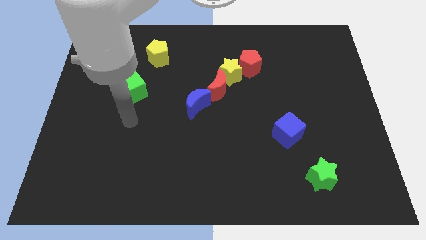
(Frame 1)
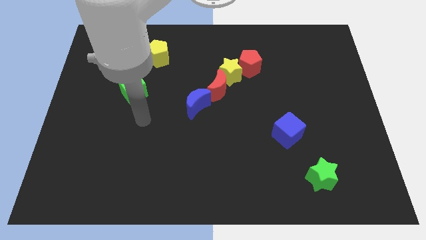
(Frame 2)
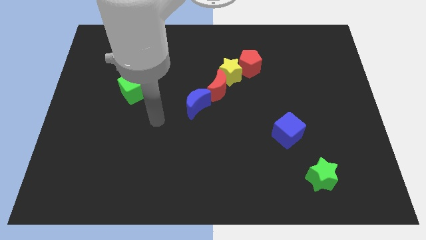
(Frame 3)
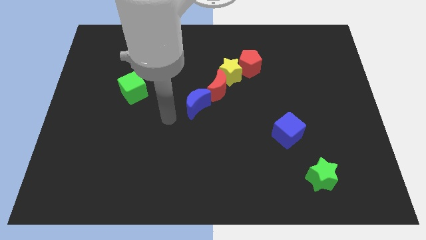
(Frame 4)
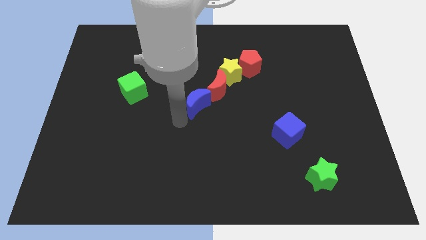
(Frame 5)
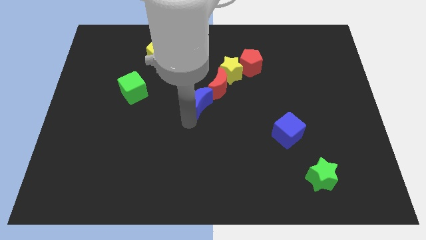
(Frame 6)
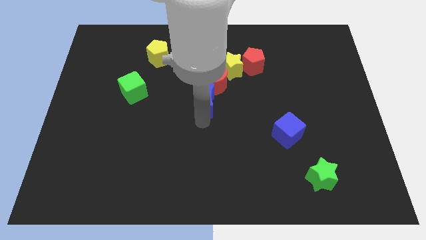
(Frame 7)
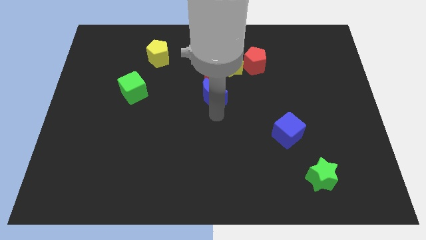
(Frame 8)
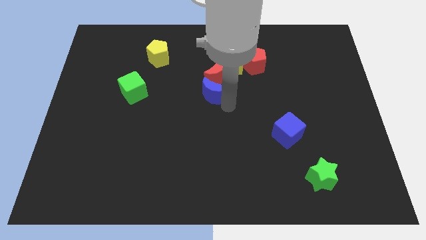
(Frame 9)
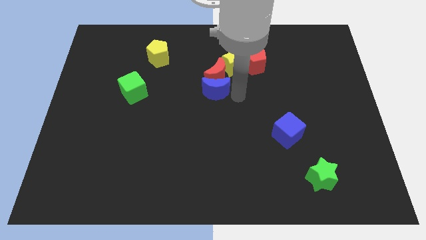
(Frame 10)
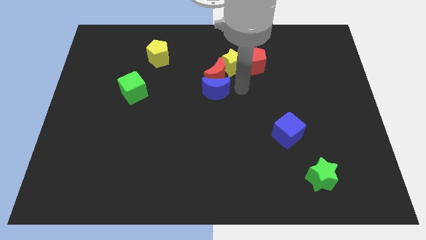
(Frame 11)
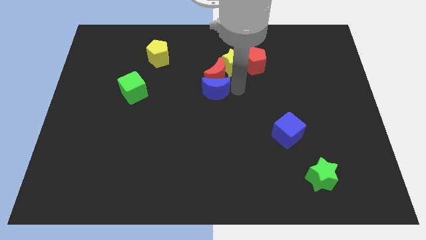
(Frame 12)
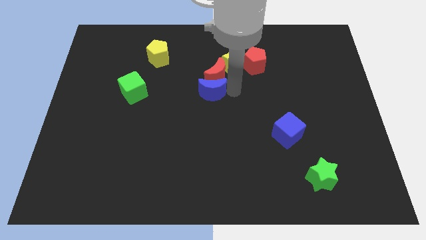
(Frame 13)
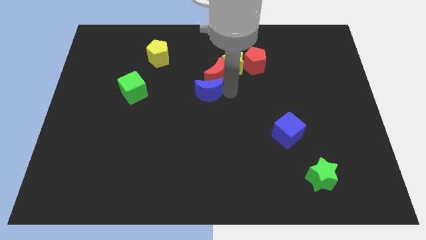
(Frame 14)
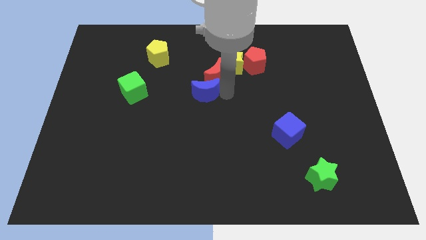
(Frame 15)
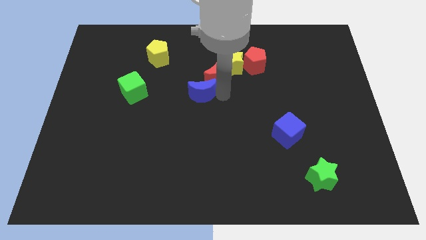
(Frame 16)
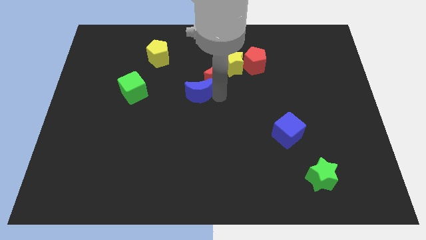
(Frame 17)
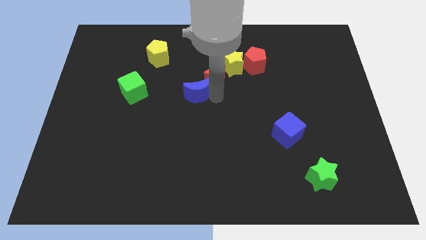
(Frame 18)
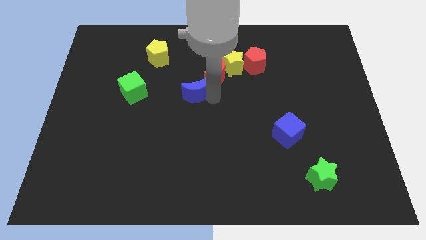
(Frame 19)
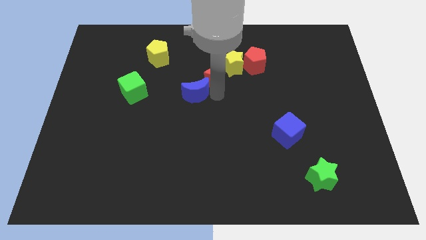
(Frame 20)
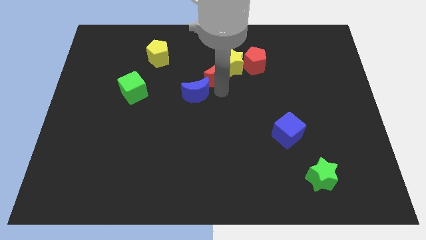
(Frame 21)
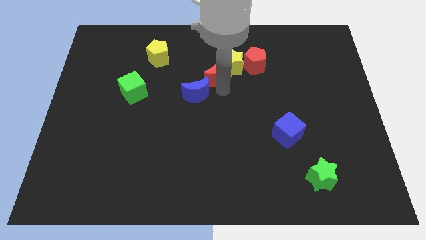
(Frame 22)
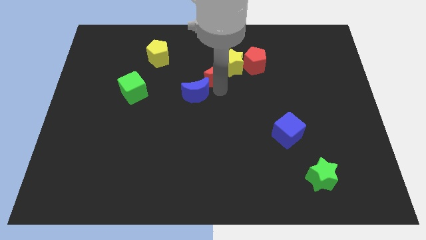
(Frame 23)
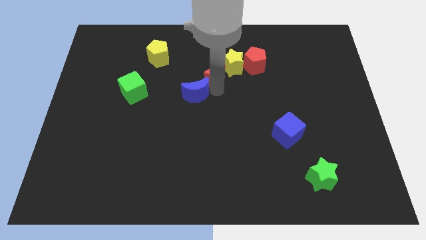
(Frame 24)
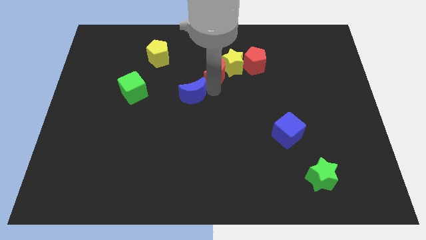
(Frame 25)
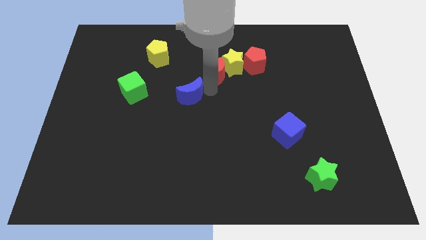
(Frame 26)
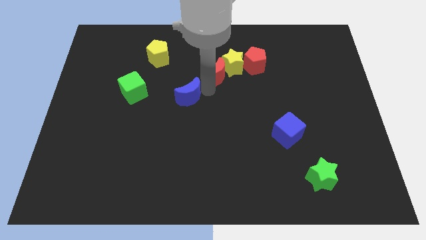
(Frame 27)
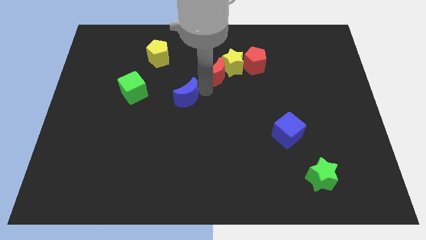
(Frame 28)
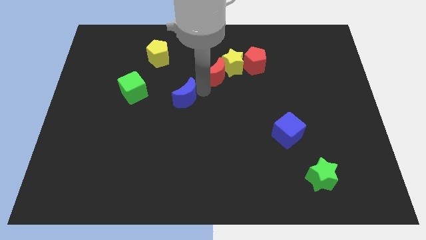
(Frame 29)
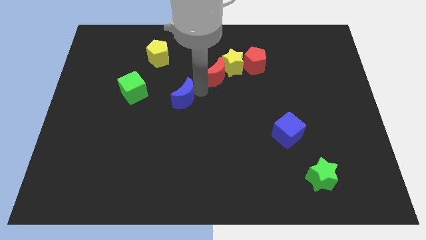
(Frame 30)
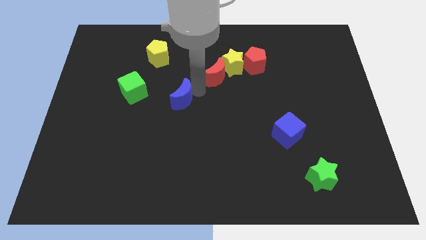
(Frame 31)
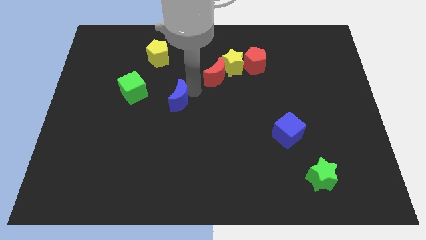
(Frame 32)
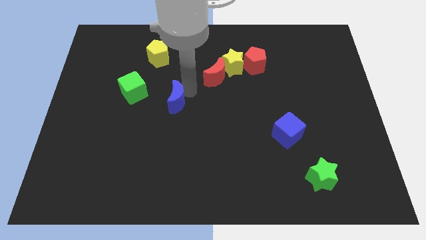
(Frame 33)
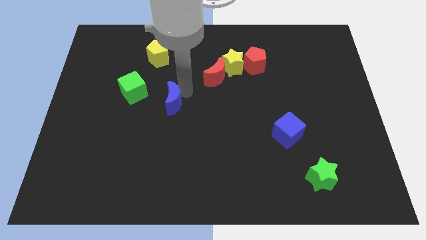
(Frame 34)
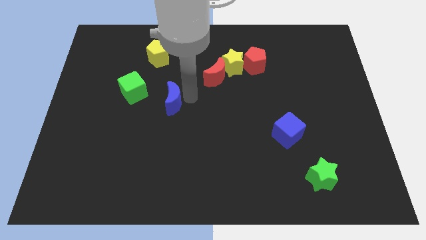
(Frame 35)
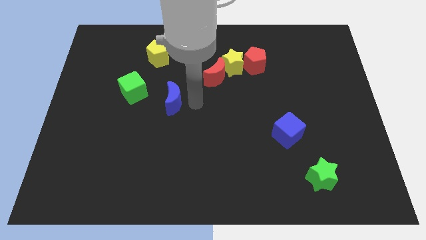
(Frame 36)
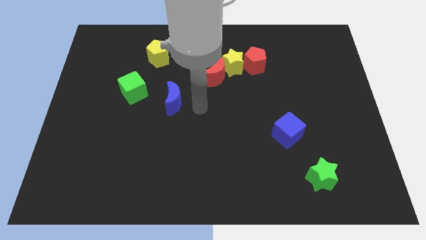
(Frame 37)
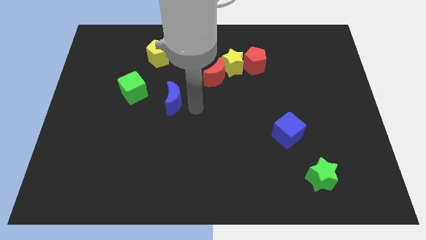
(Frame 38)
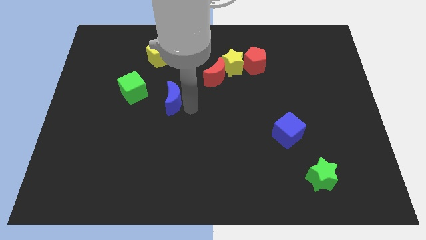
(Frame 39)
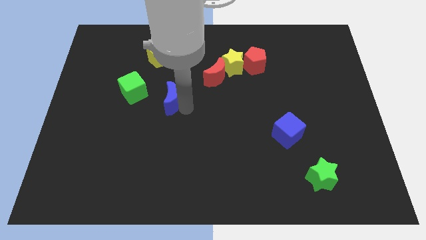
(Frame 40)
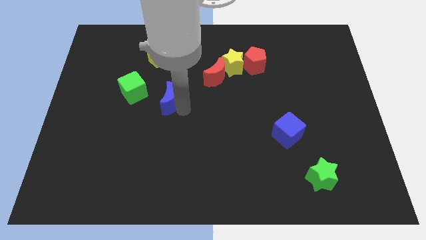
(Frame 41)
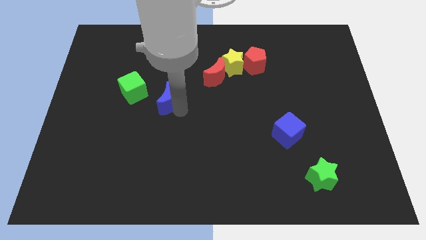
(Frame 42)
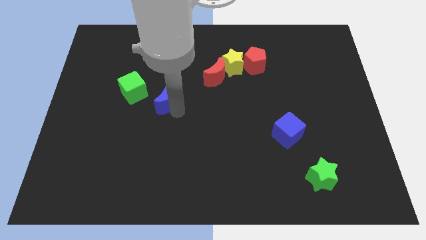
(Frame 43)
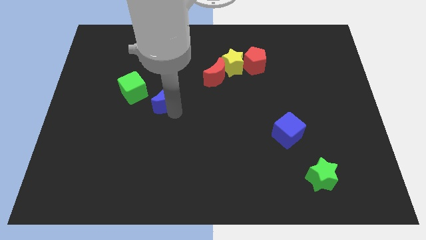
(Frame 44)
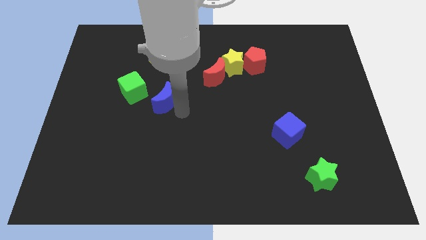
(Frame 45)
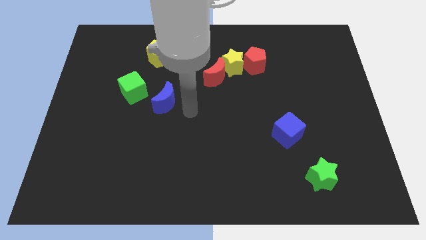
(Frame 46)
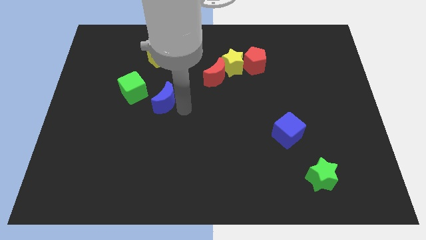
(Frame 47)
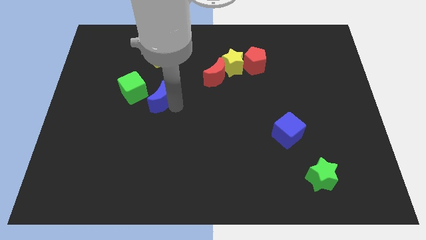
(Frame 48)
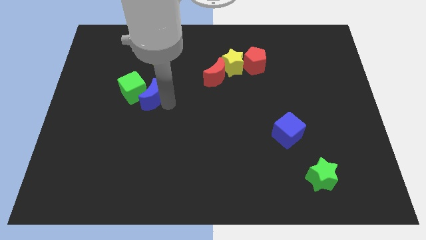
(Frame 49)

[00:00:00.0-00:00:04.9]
slide the blue moon to the green cube

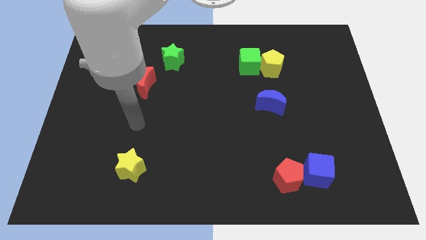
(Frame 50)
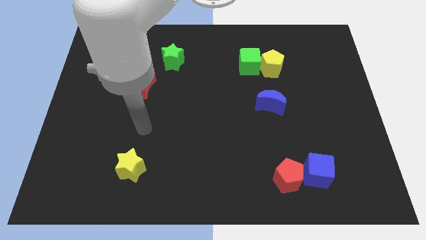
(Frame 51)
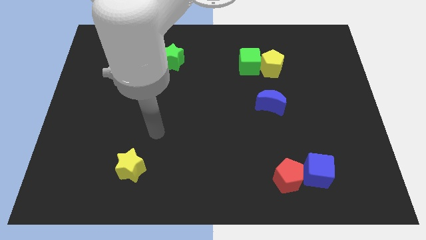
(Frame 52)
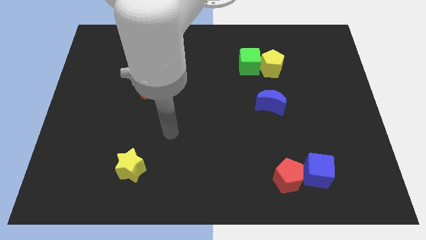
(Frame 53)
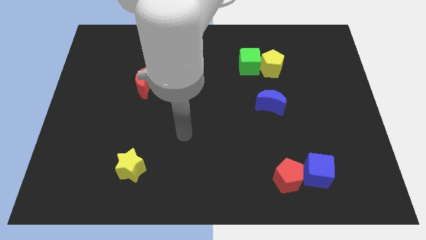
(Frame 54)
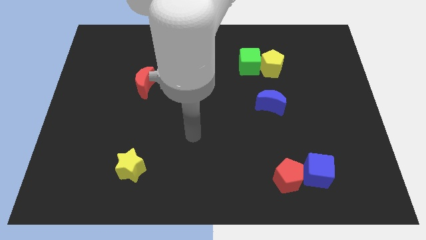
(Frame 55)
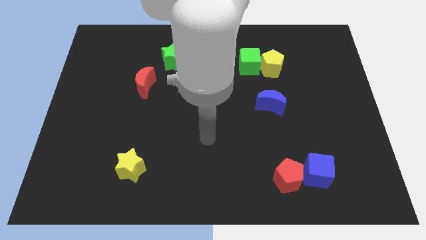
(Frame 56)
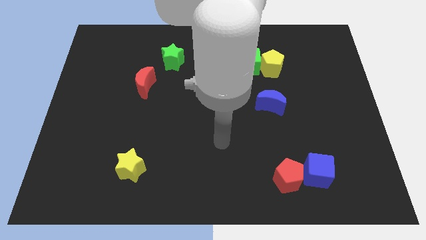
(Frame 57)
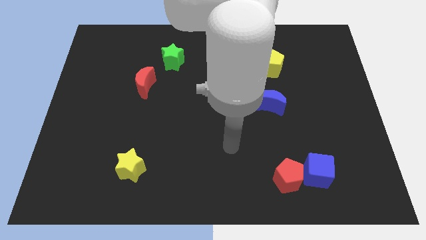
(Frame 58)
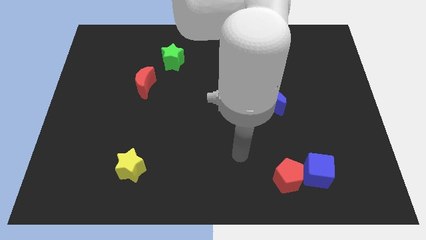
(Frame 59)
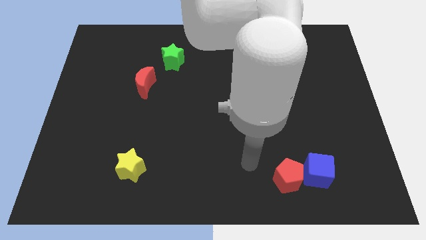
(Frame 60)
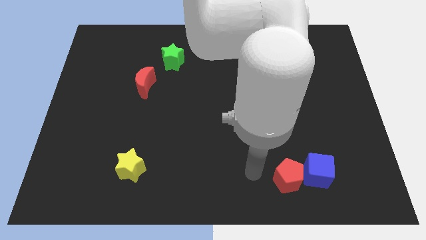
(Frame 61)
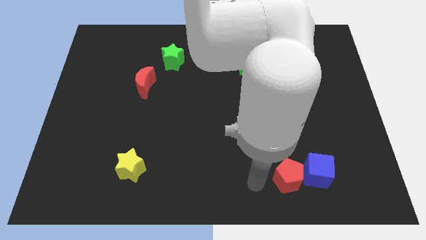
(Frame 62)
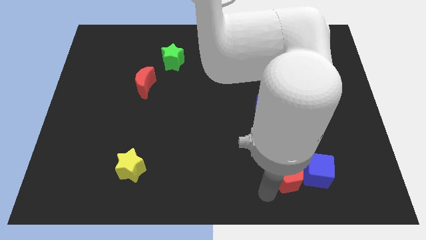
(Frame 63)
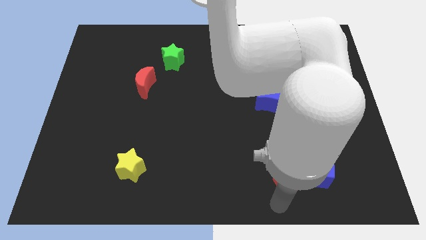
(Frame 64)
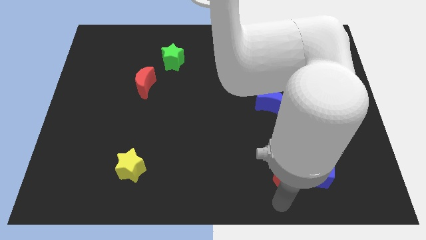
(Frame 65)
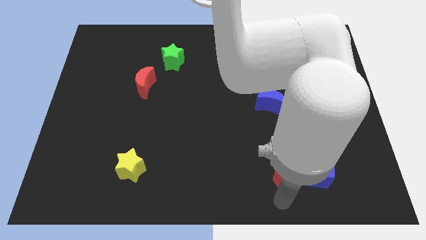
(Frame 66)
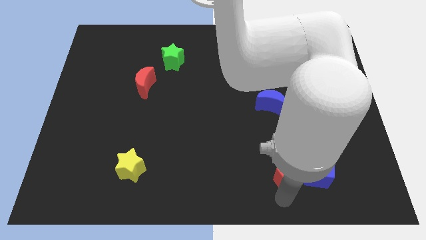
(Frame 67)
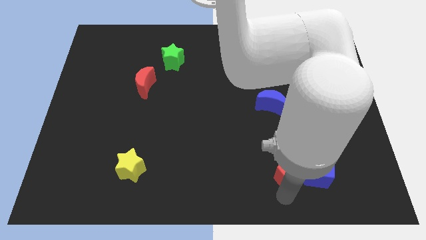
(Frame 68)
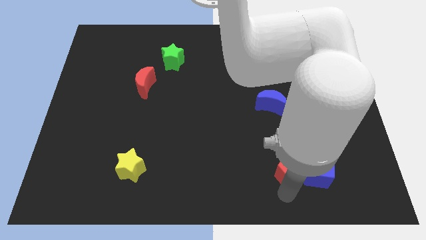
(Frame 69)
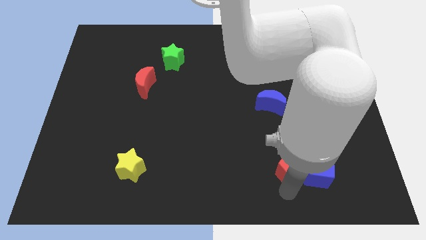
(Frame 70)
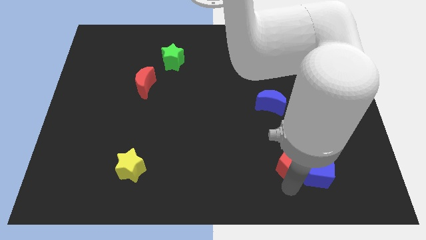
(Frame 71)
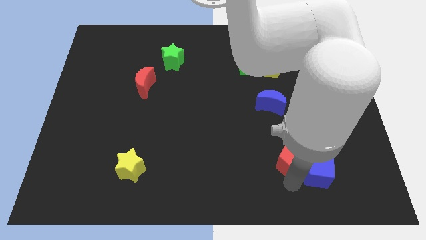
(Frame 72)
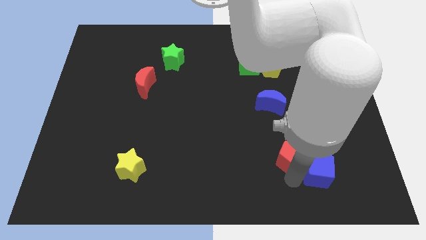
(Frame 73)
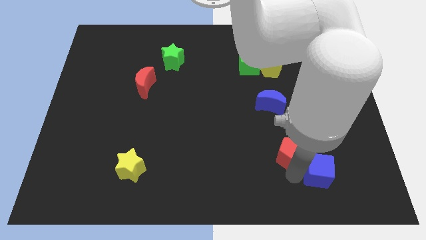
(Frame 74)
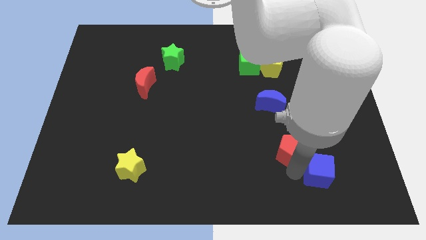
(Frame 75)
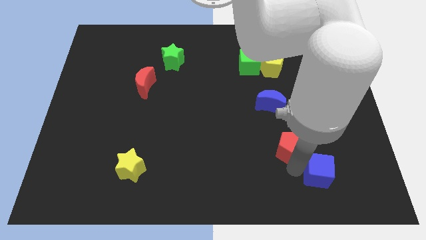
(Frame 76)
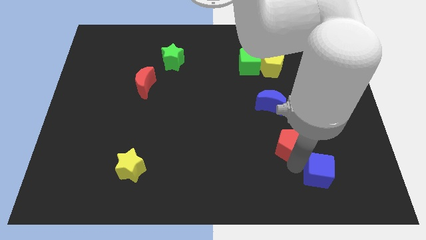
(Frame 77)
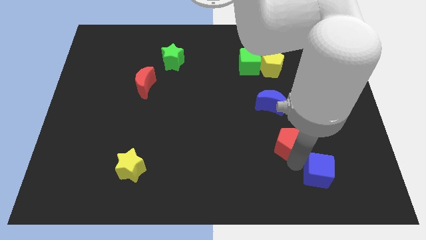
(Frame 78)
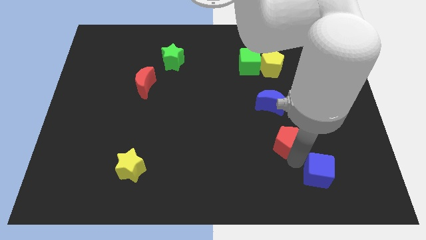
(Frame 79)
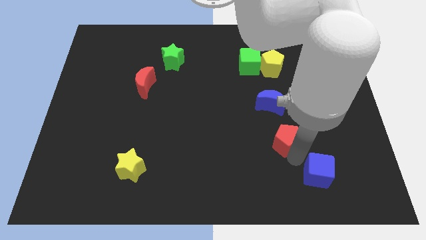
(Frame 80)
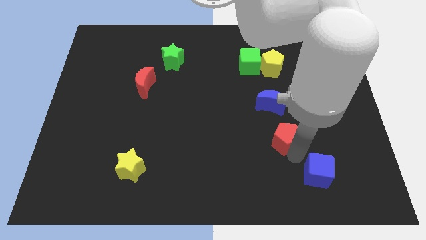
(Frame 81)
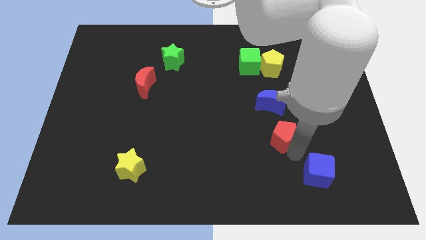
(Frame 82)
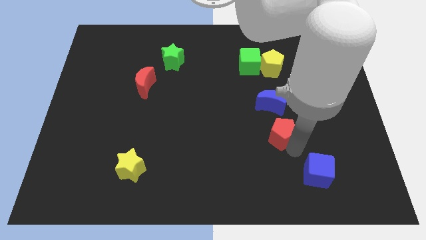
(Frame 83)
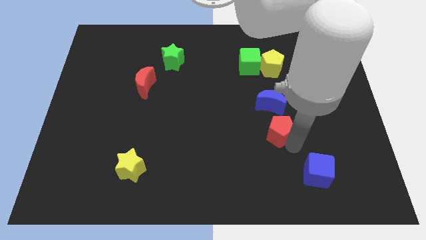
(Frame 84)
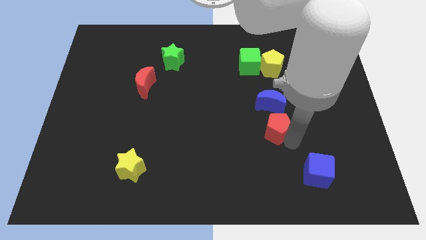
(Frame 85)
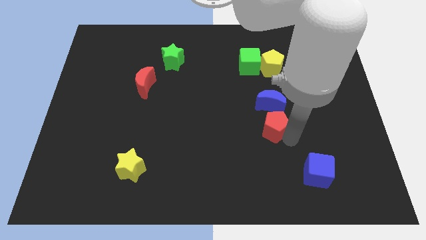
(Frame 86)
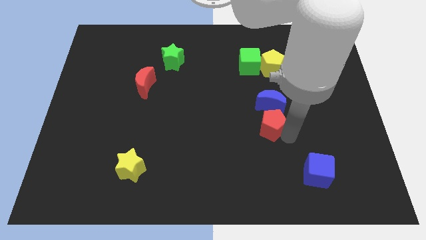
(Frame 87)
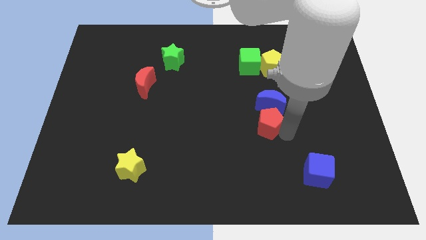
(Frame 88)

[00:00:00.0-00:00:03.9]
move the red pentagon close to the blue moon
